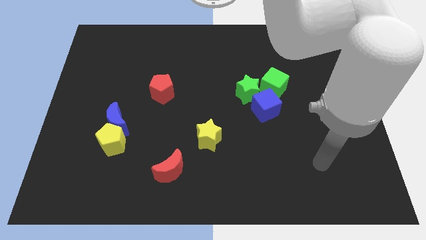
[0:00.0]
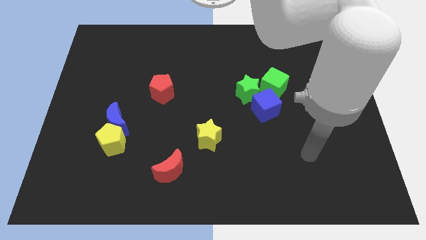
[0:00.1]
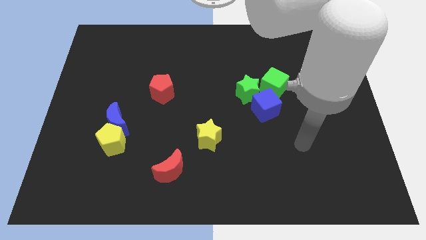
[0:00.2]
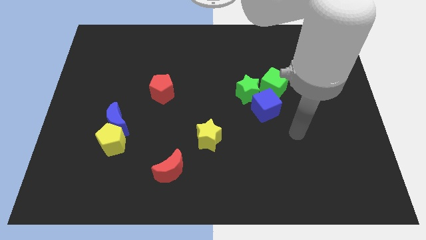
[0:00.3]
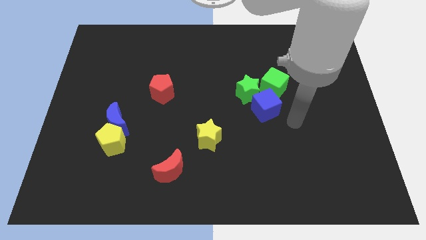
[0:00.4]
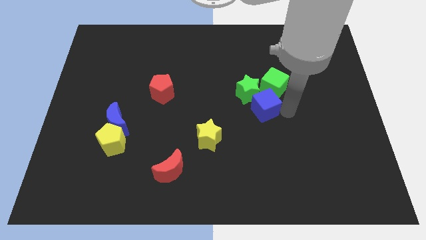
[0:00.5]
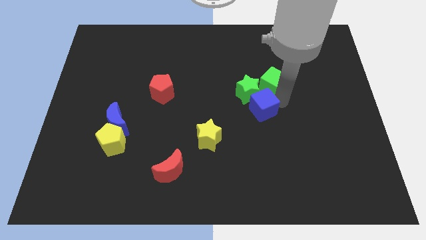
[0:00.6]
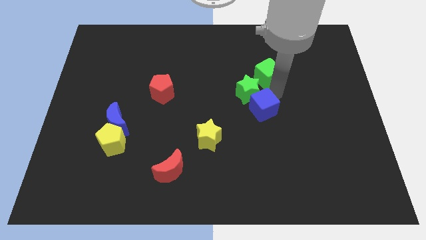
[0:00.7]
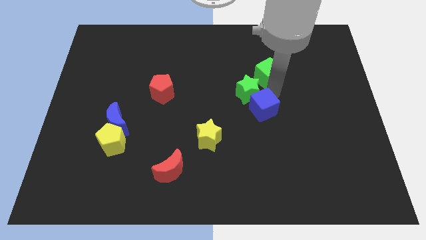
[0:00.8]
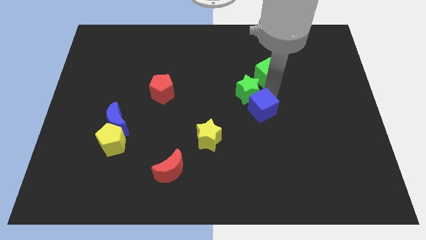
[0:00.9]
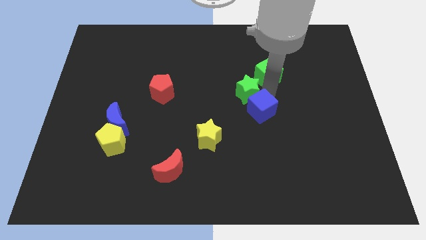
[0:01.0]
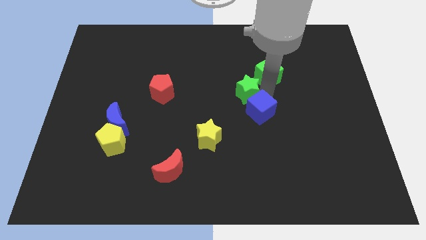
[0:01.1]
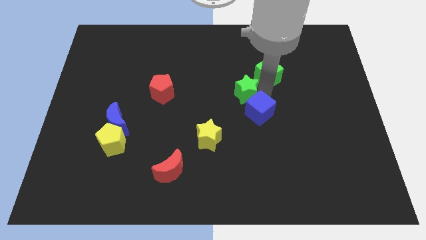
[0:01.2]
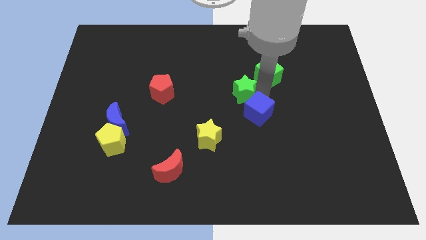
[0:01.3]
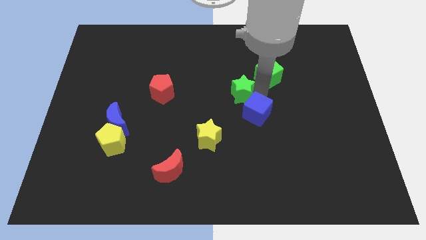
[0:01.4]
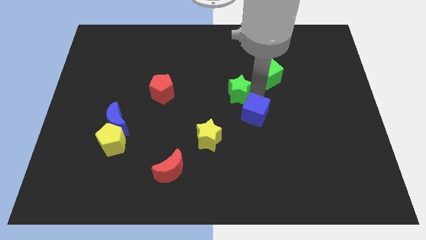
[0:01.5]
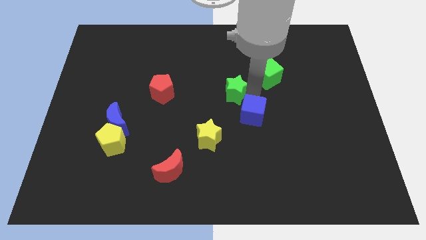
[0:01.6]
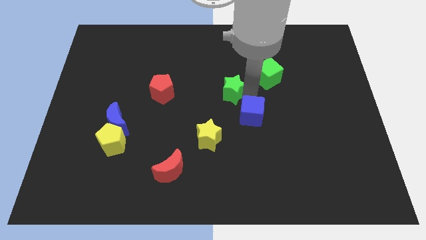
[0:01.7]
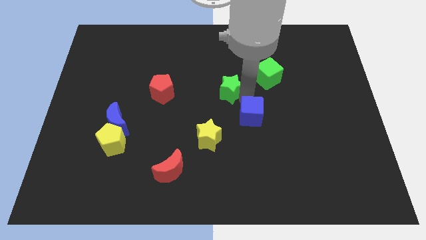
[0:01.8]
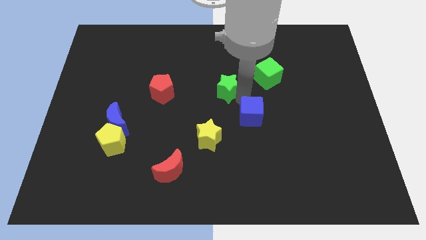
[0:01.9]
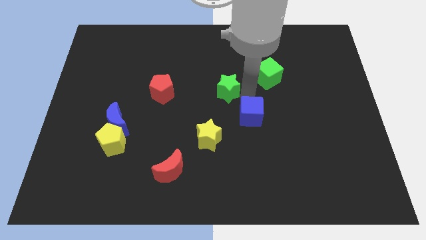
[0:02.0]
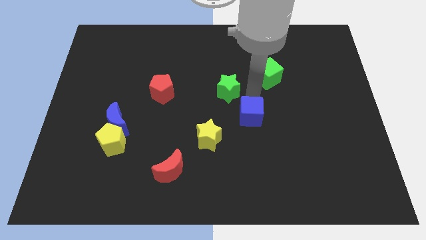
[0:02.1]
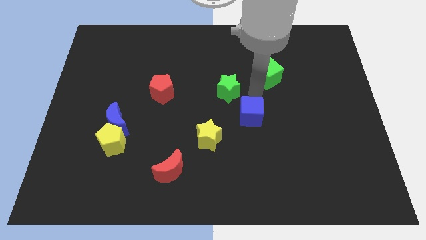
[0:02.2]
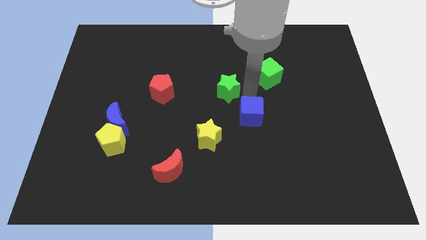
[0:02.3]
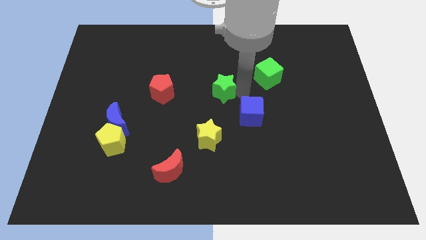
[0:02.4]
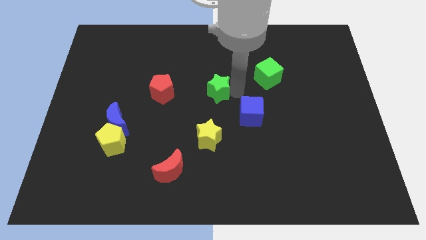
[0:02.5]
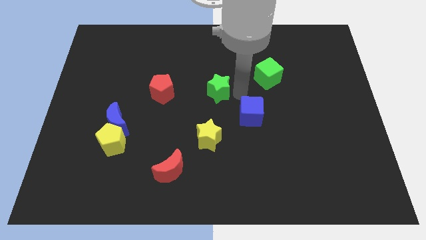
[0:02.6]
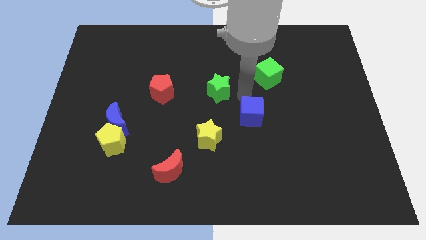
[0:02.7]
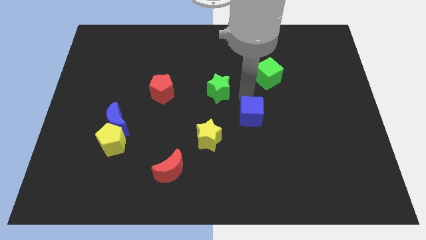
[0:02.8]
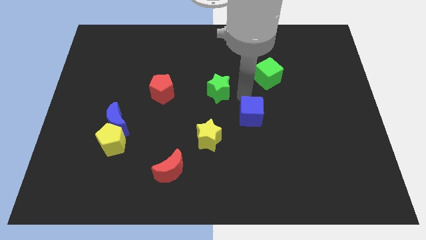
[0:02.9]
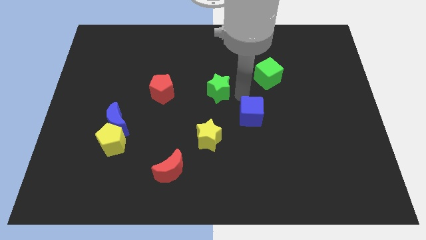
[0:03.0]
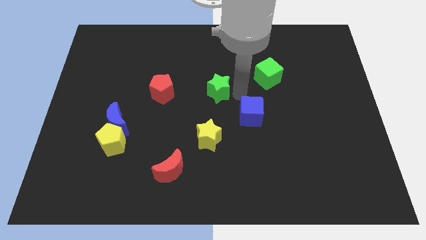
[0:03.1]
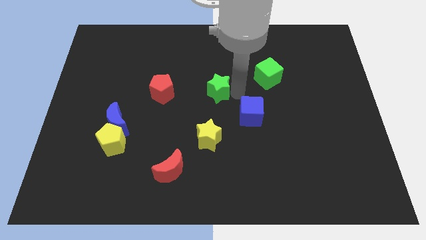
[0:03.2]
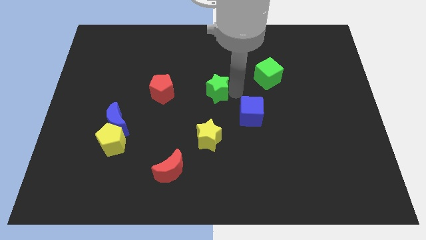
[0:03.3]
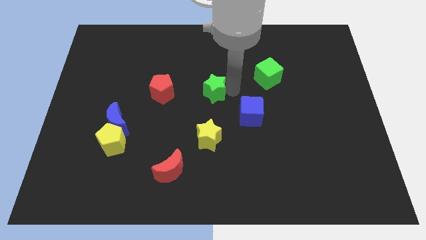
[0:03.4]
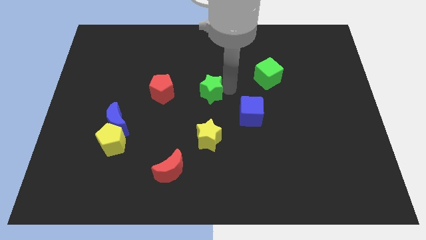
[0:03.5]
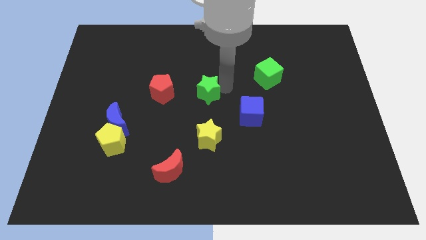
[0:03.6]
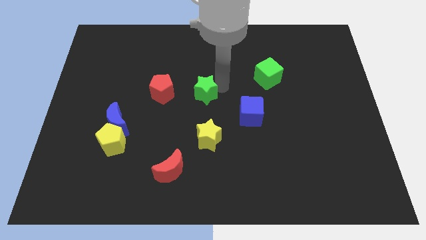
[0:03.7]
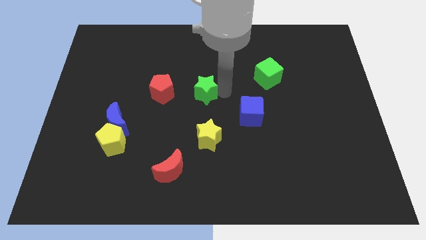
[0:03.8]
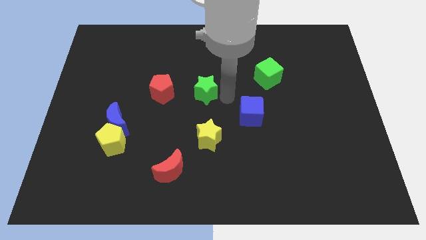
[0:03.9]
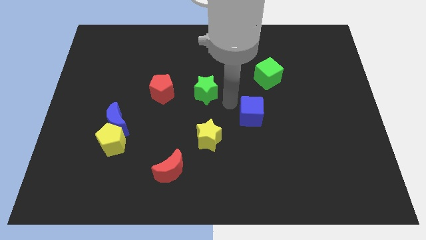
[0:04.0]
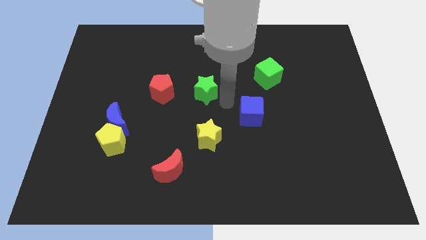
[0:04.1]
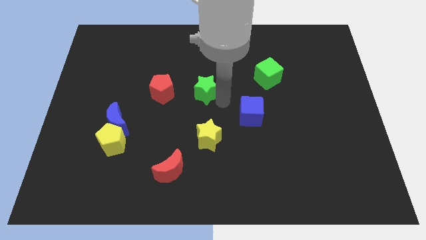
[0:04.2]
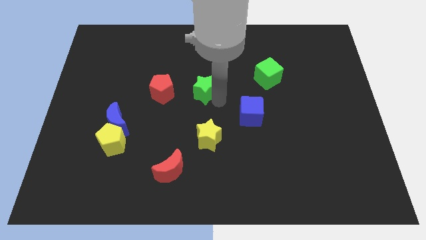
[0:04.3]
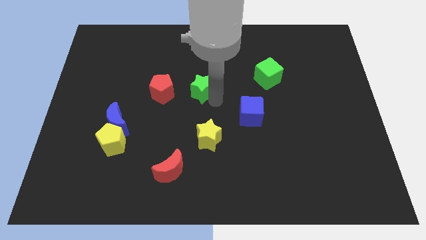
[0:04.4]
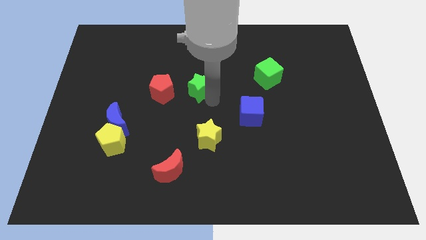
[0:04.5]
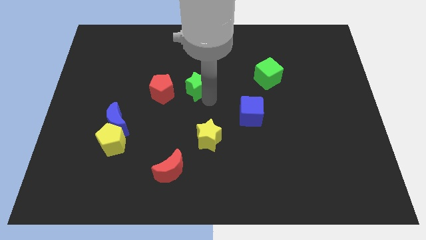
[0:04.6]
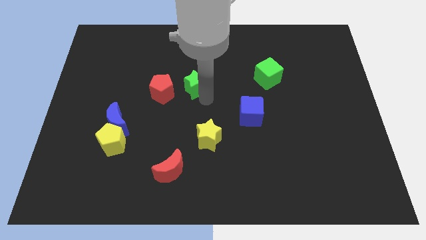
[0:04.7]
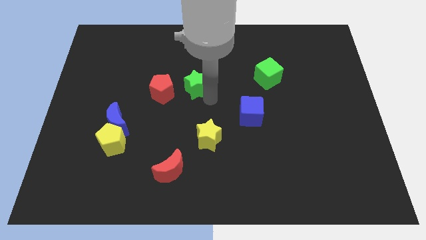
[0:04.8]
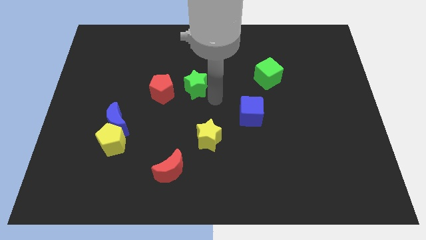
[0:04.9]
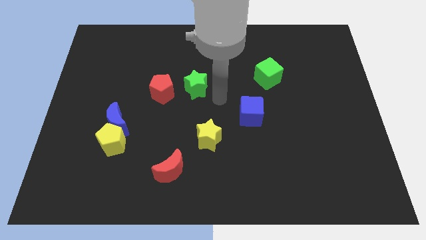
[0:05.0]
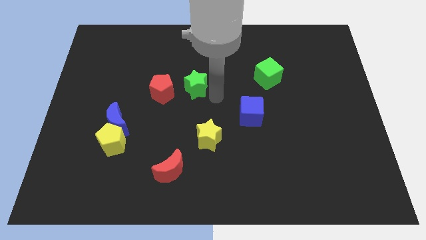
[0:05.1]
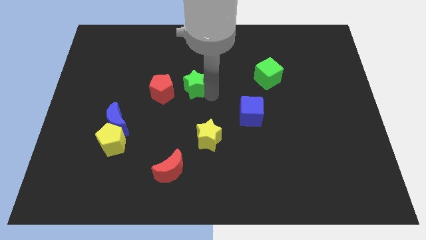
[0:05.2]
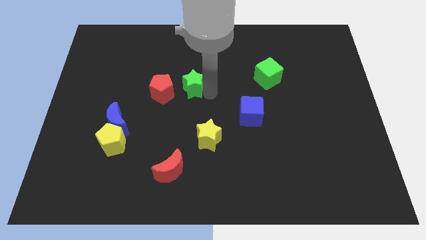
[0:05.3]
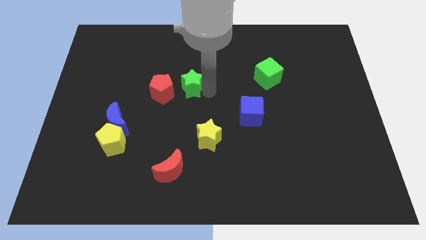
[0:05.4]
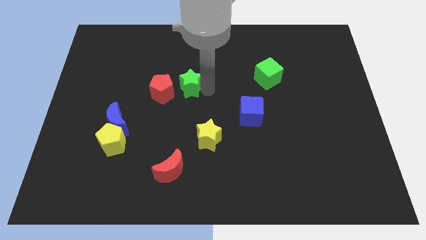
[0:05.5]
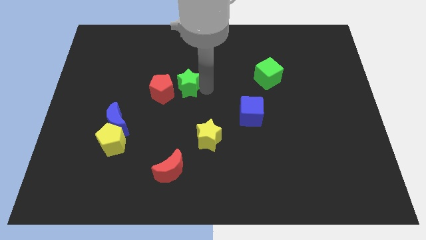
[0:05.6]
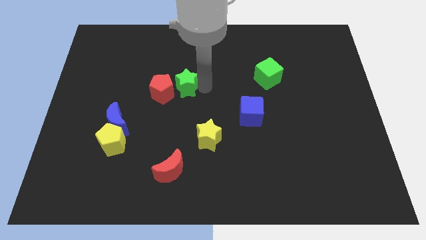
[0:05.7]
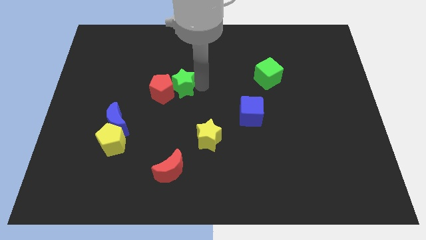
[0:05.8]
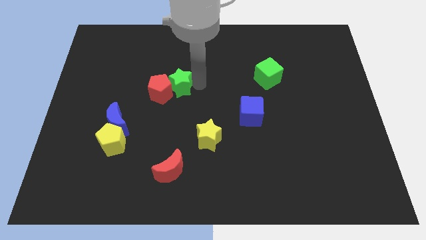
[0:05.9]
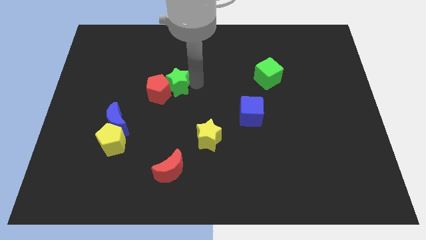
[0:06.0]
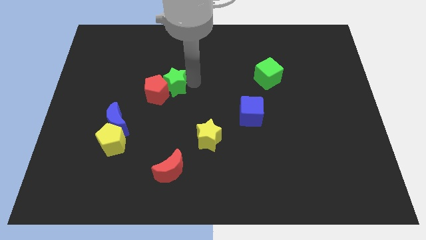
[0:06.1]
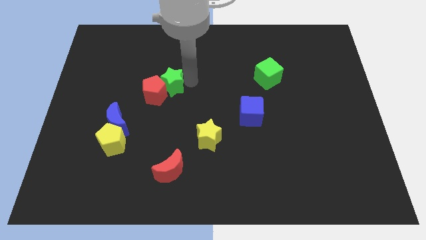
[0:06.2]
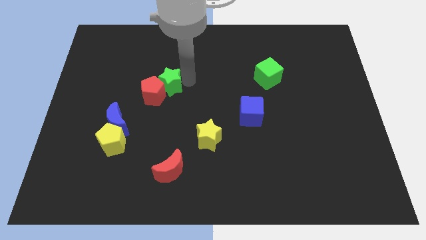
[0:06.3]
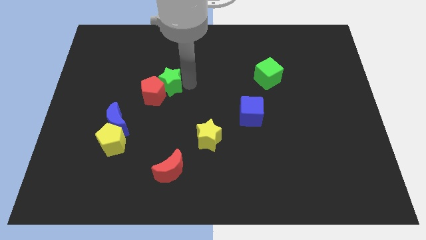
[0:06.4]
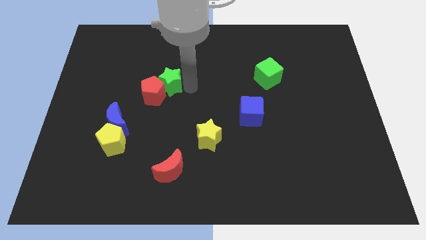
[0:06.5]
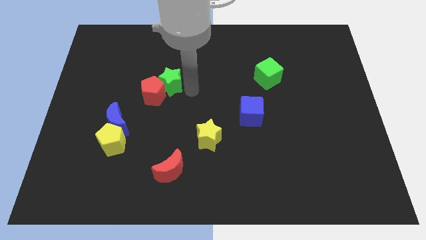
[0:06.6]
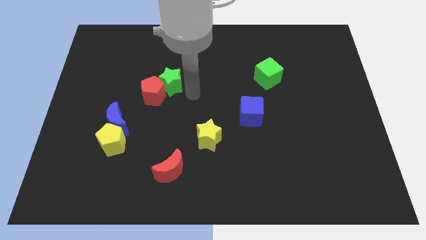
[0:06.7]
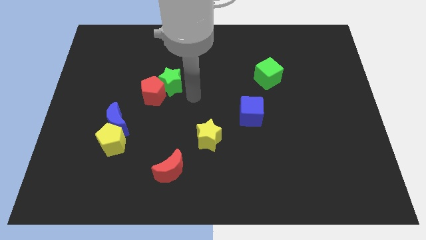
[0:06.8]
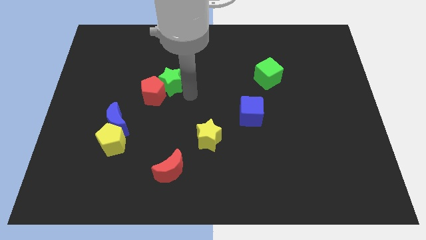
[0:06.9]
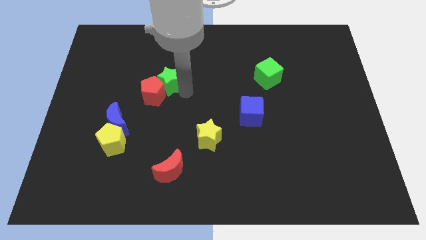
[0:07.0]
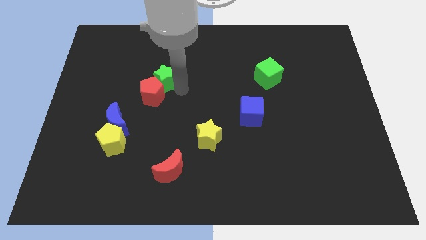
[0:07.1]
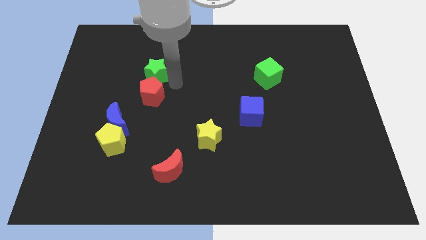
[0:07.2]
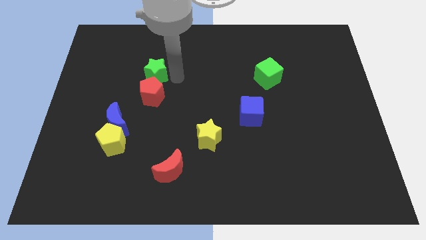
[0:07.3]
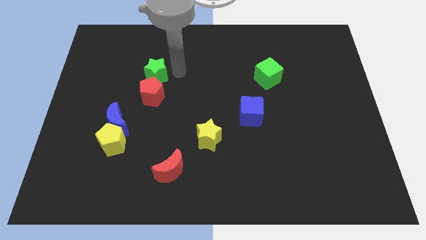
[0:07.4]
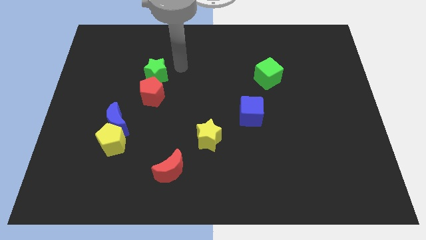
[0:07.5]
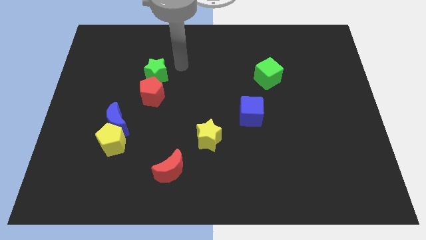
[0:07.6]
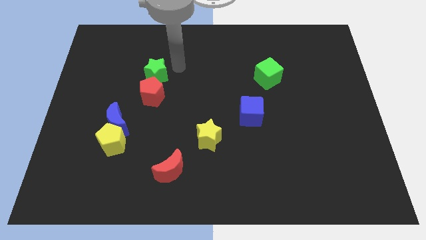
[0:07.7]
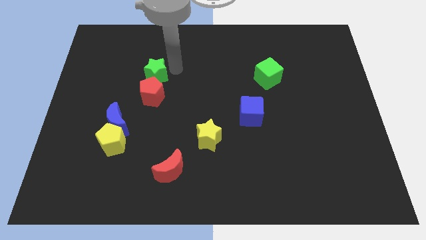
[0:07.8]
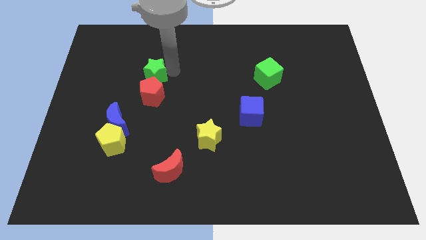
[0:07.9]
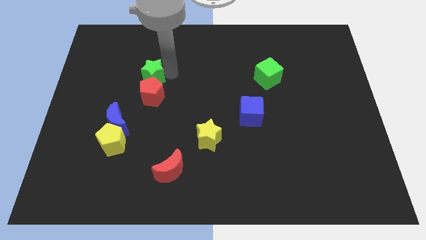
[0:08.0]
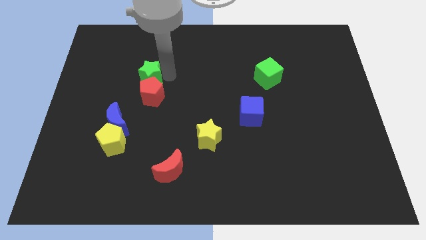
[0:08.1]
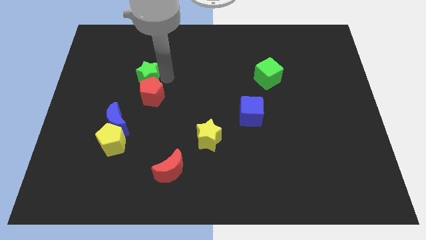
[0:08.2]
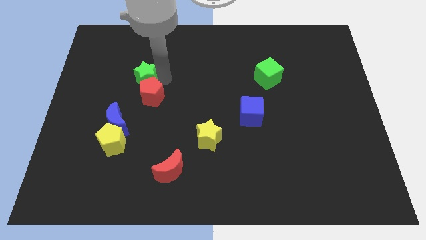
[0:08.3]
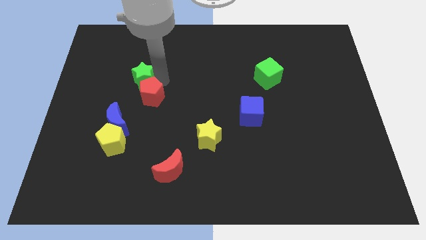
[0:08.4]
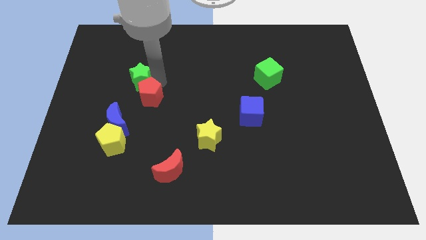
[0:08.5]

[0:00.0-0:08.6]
put the green star to the top side of the blue moon
